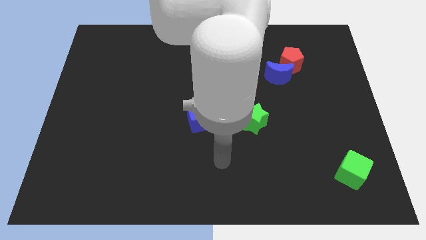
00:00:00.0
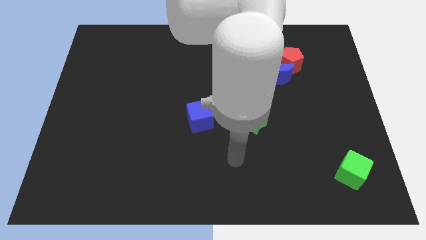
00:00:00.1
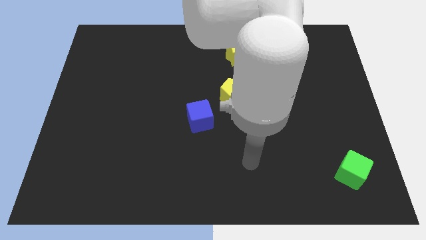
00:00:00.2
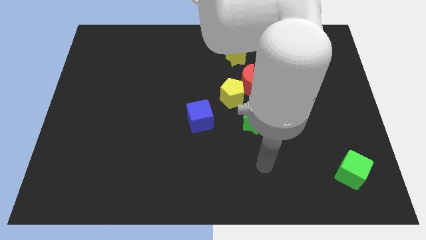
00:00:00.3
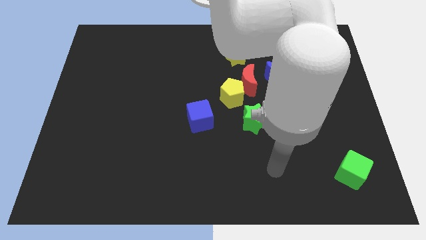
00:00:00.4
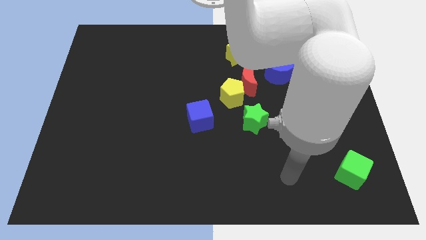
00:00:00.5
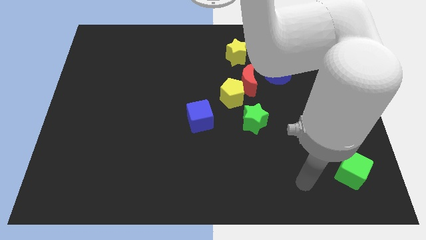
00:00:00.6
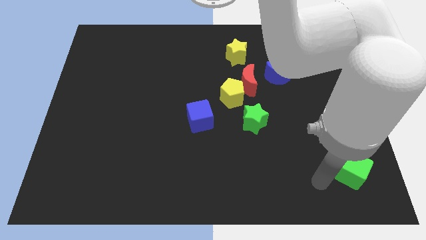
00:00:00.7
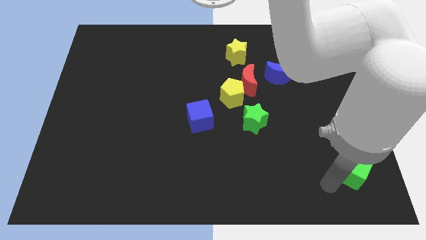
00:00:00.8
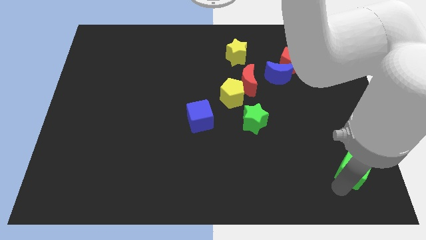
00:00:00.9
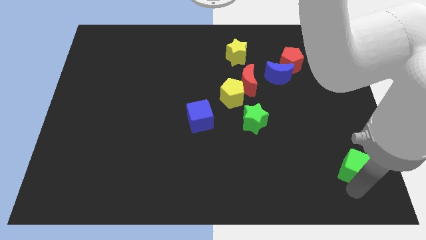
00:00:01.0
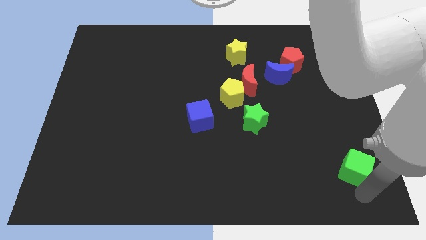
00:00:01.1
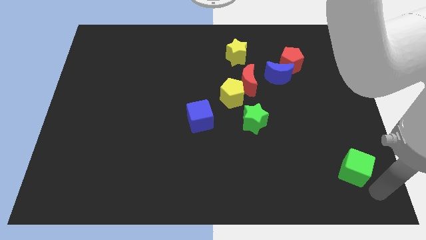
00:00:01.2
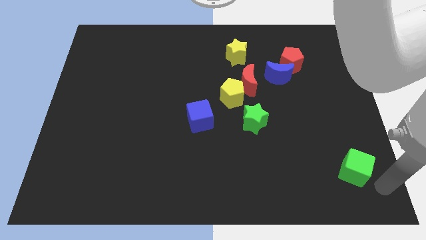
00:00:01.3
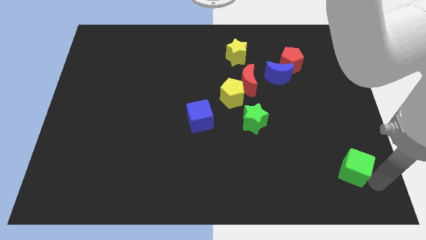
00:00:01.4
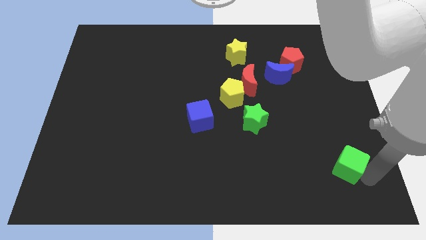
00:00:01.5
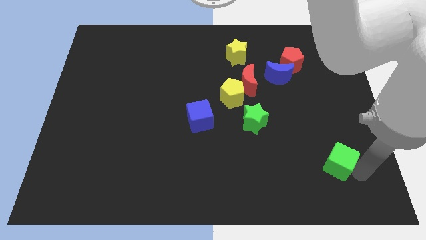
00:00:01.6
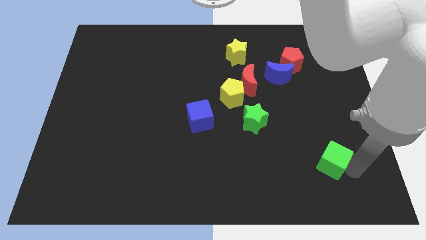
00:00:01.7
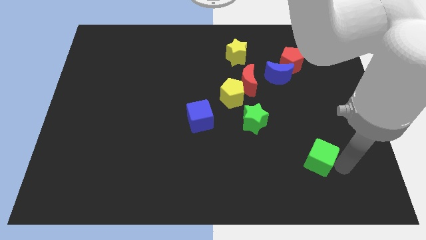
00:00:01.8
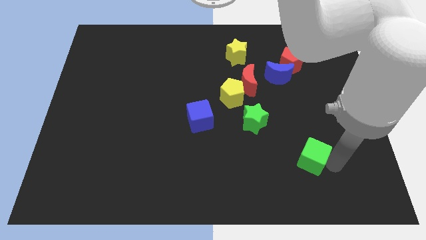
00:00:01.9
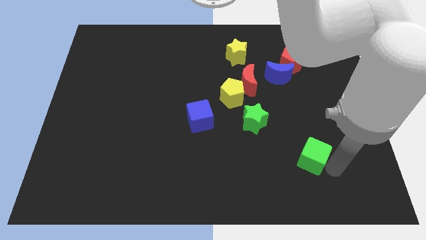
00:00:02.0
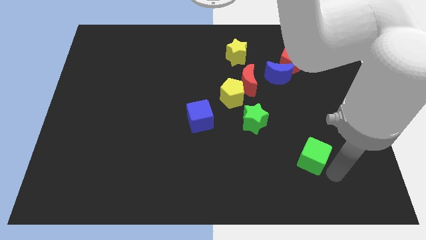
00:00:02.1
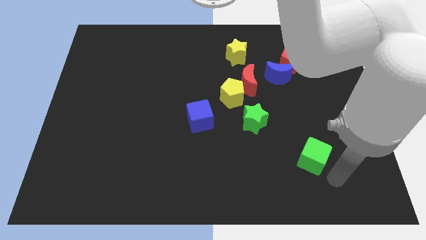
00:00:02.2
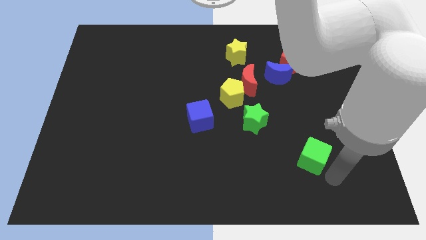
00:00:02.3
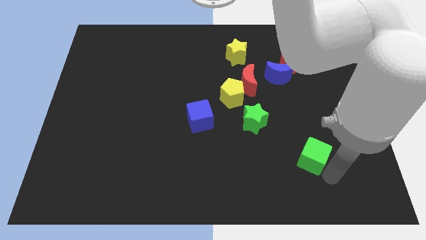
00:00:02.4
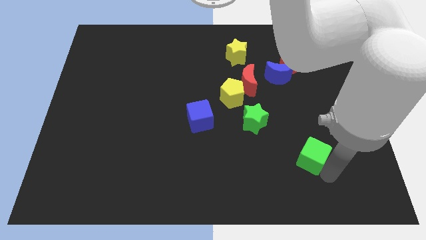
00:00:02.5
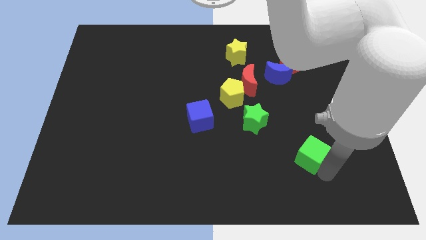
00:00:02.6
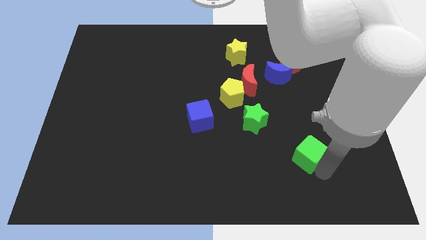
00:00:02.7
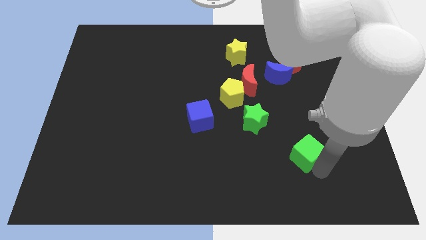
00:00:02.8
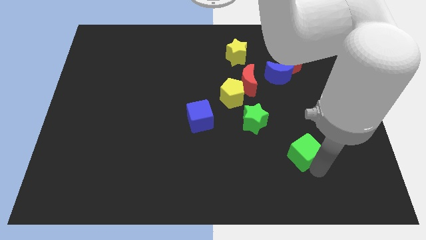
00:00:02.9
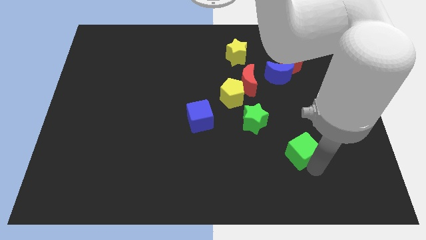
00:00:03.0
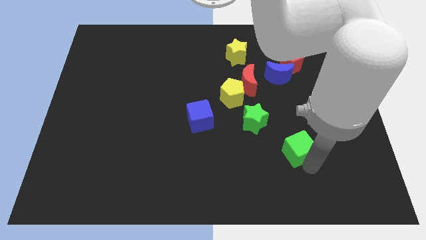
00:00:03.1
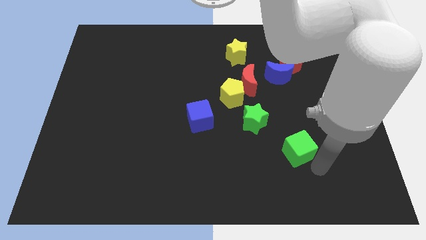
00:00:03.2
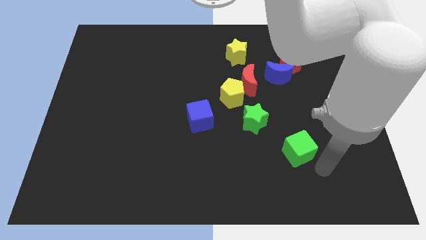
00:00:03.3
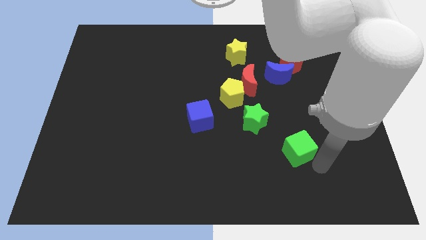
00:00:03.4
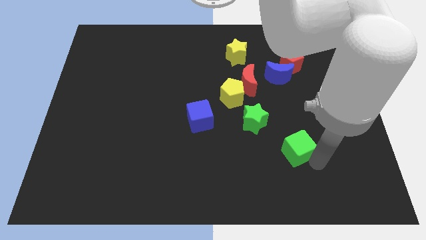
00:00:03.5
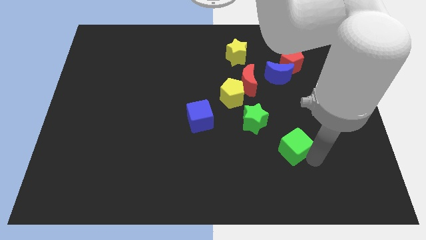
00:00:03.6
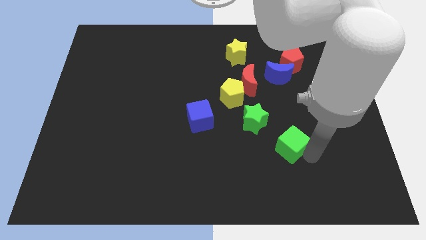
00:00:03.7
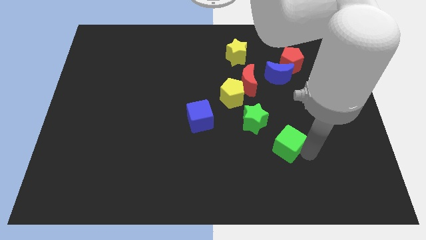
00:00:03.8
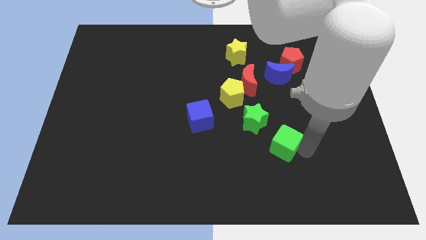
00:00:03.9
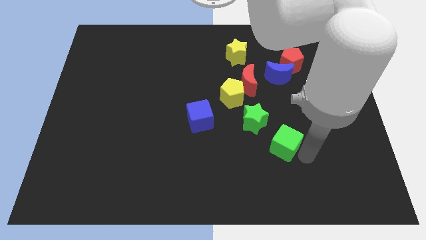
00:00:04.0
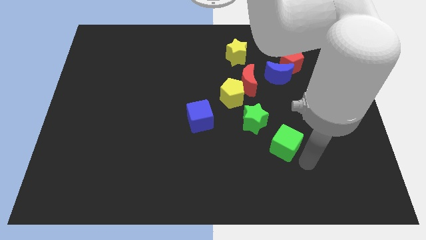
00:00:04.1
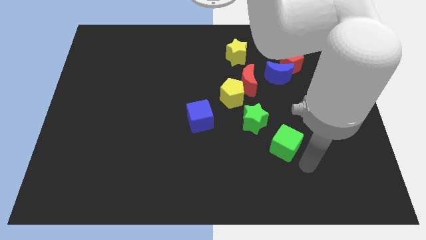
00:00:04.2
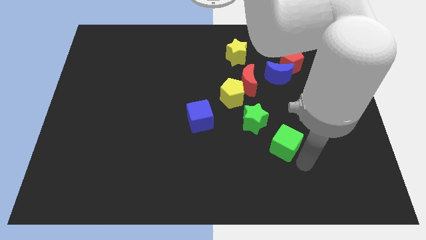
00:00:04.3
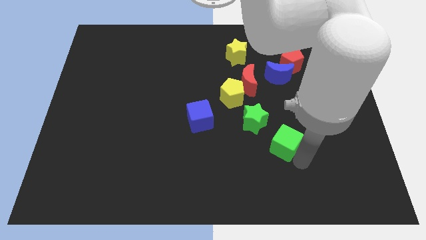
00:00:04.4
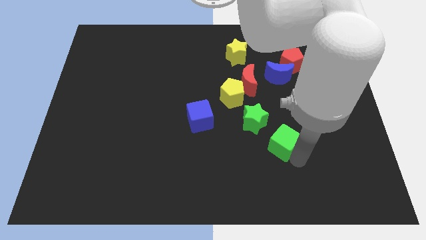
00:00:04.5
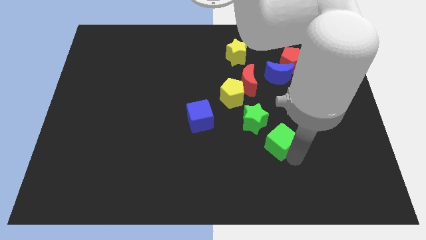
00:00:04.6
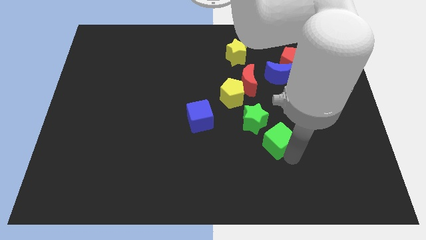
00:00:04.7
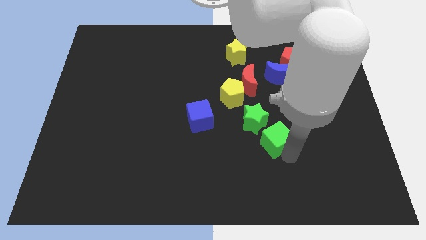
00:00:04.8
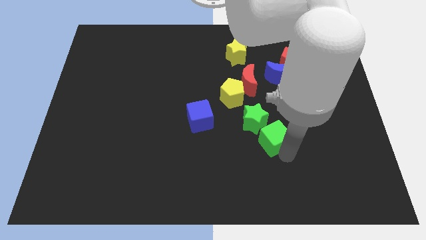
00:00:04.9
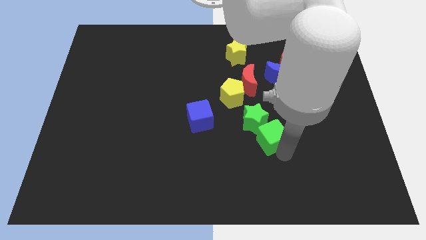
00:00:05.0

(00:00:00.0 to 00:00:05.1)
put the green cube to the green star

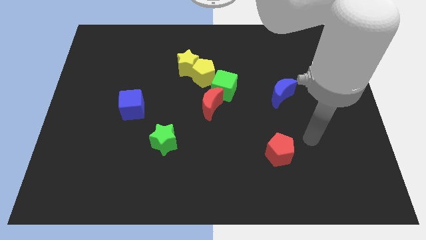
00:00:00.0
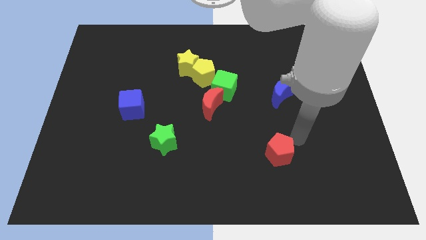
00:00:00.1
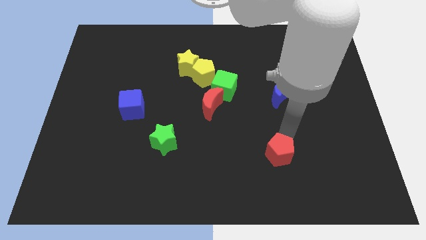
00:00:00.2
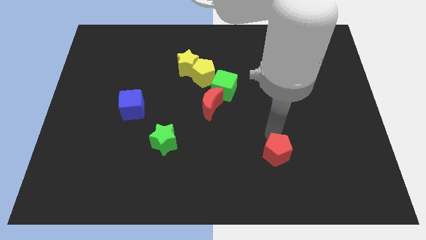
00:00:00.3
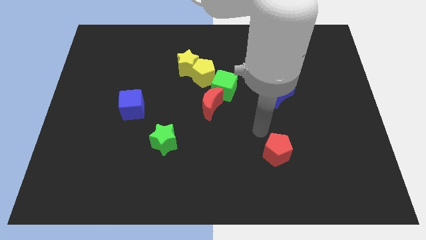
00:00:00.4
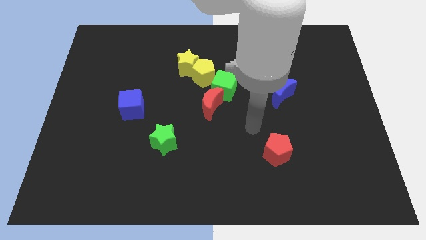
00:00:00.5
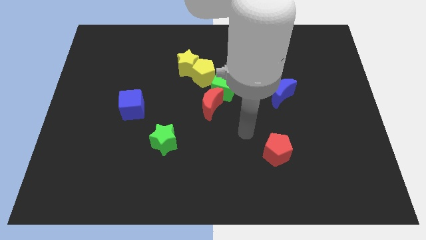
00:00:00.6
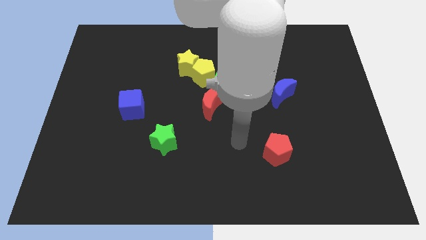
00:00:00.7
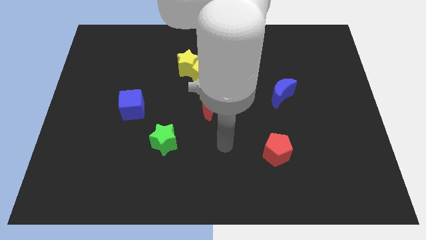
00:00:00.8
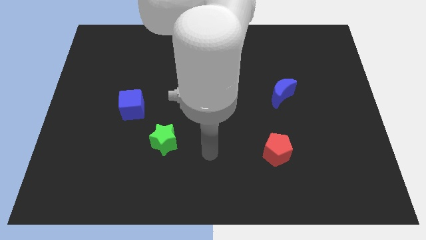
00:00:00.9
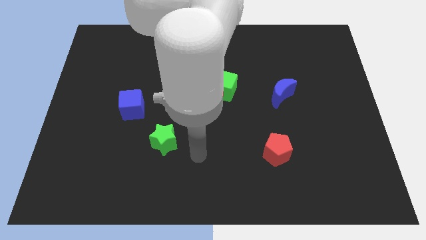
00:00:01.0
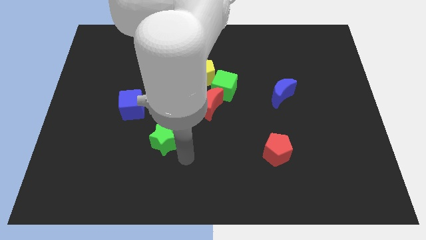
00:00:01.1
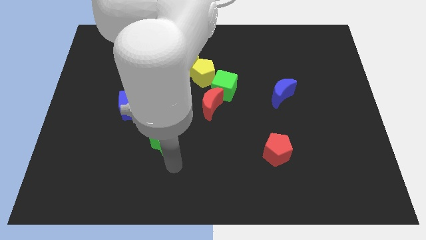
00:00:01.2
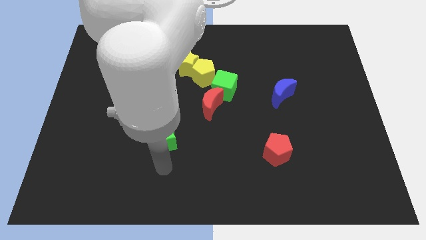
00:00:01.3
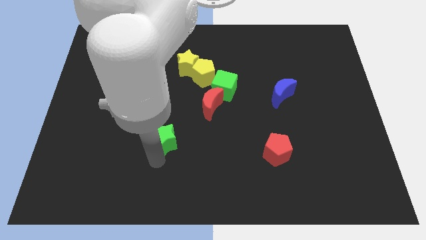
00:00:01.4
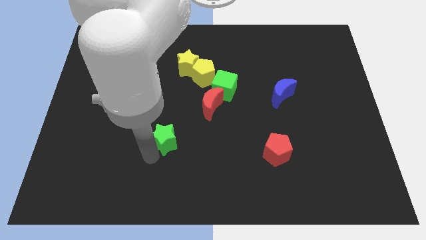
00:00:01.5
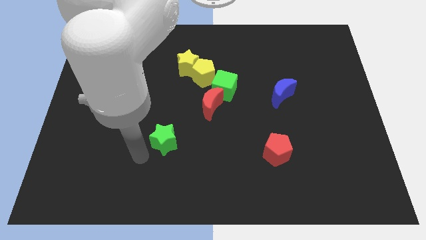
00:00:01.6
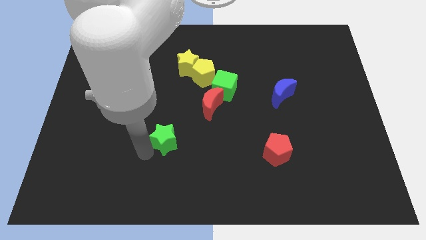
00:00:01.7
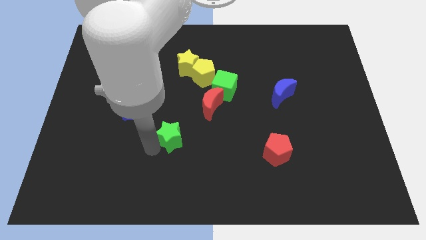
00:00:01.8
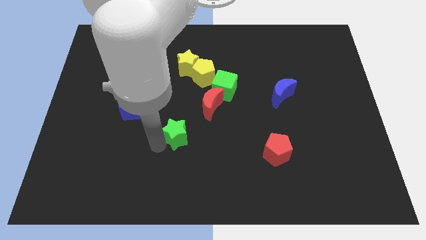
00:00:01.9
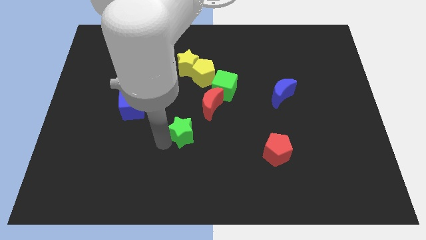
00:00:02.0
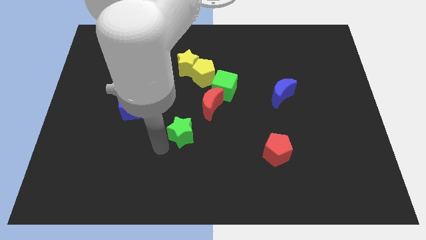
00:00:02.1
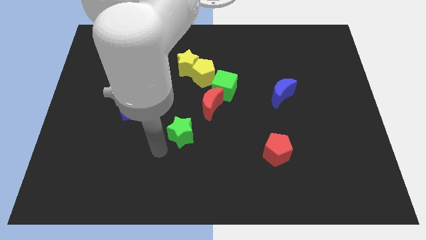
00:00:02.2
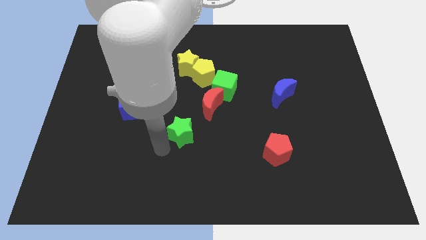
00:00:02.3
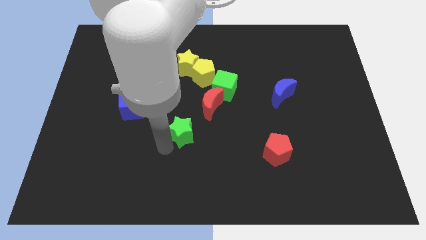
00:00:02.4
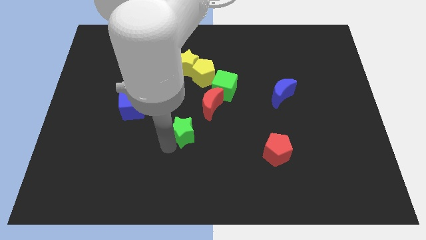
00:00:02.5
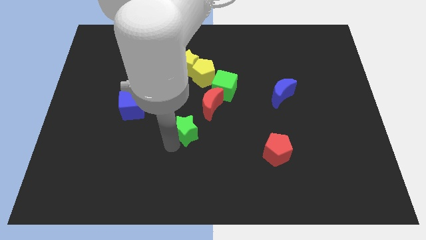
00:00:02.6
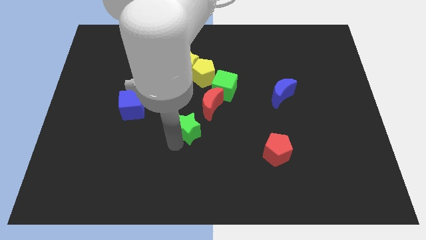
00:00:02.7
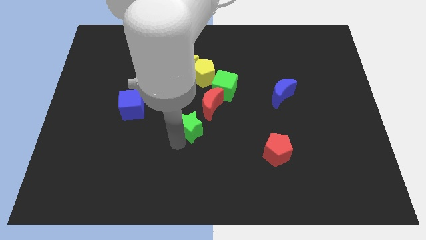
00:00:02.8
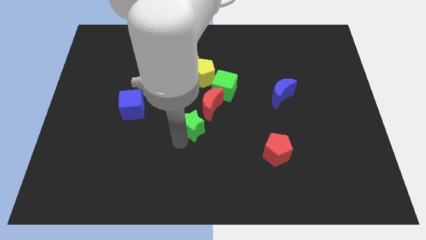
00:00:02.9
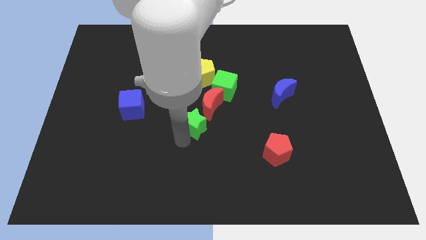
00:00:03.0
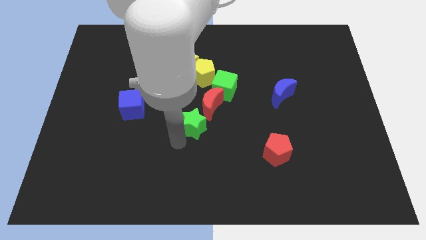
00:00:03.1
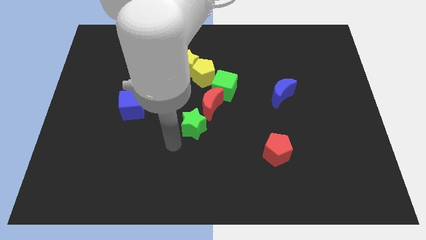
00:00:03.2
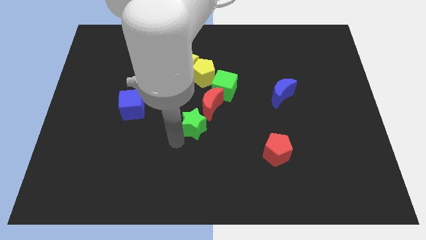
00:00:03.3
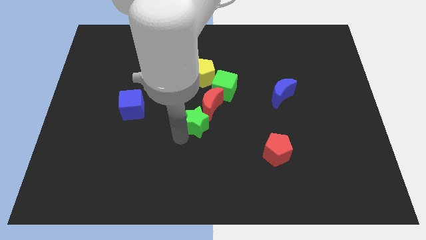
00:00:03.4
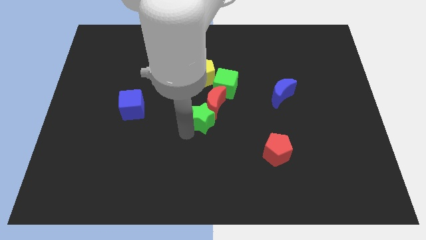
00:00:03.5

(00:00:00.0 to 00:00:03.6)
put the green star towards the red moon
